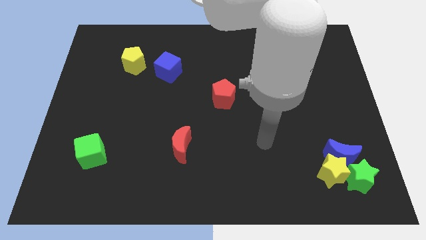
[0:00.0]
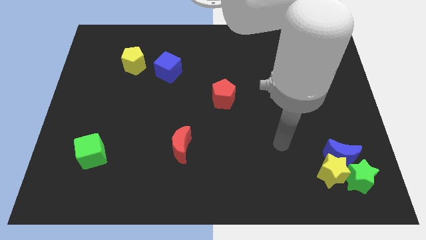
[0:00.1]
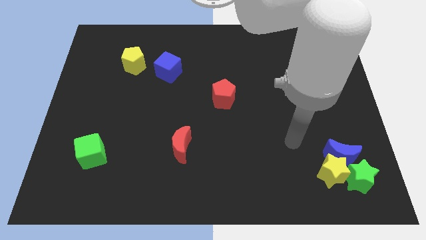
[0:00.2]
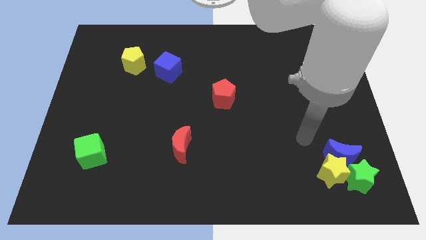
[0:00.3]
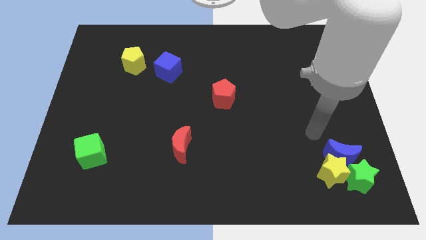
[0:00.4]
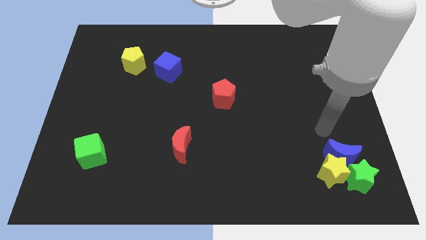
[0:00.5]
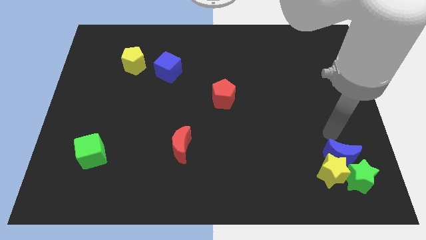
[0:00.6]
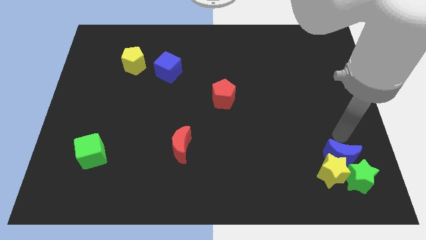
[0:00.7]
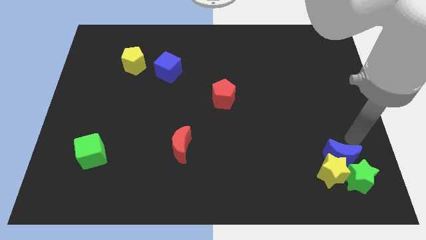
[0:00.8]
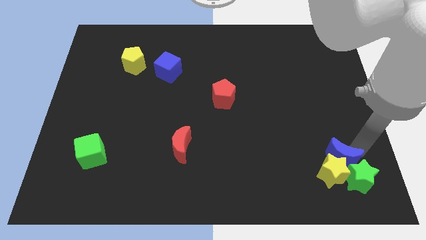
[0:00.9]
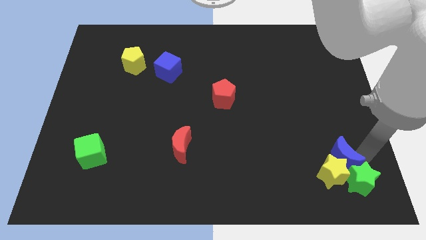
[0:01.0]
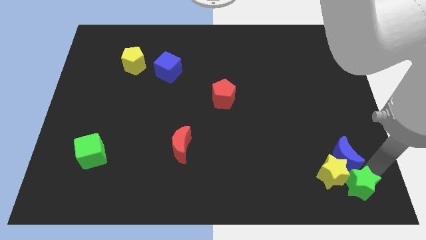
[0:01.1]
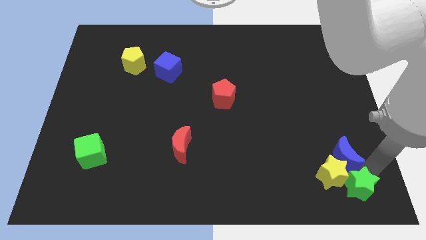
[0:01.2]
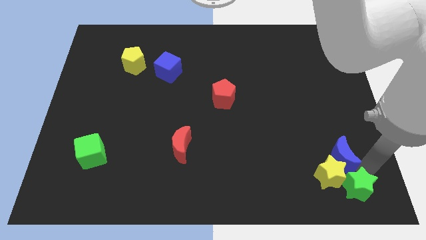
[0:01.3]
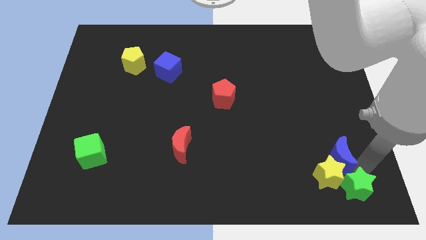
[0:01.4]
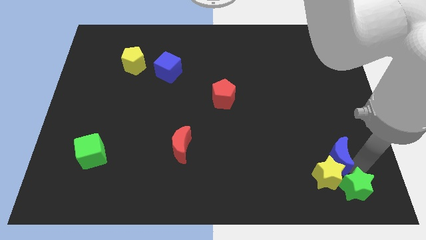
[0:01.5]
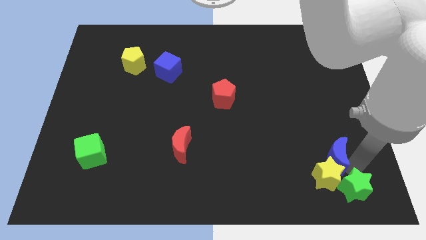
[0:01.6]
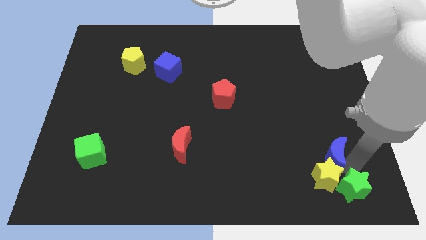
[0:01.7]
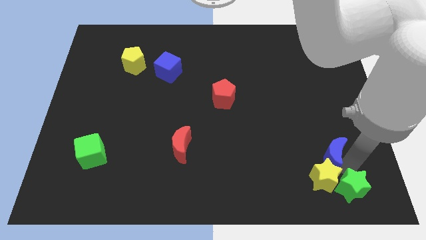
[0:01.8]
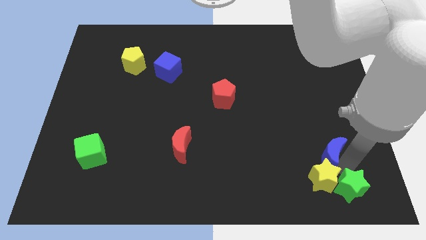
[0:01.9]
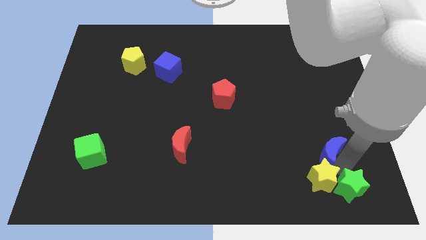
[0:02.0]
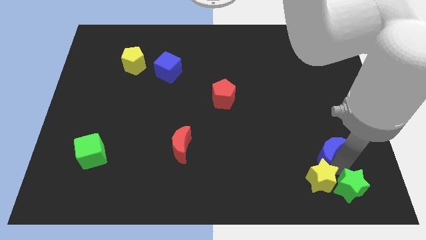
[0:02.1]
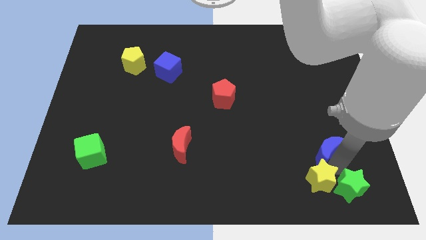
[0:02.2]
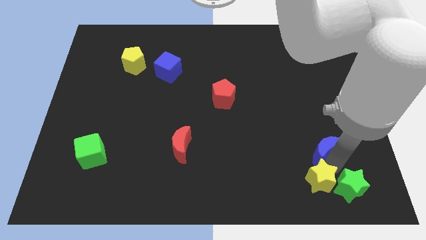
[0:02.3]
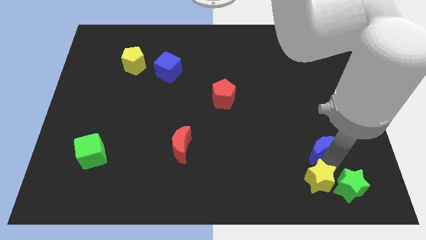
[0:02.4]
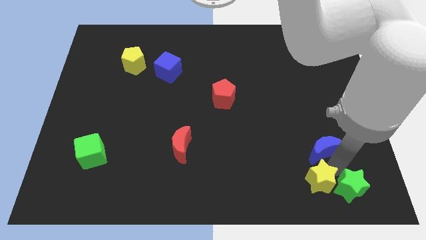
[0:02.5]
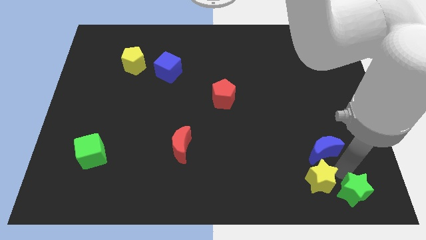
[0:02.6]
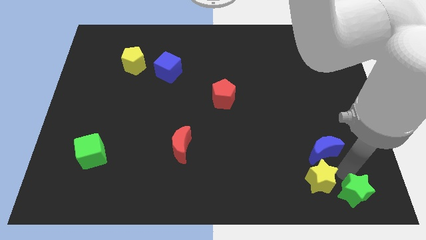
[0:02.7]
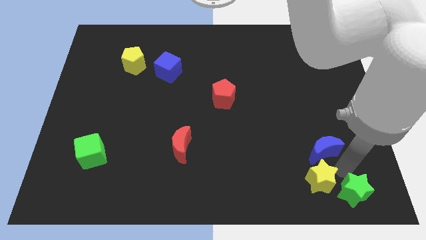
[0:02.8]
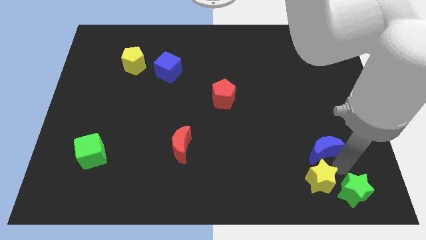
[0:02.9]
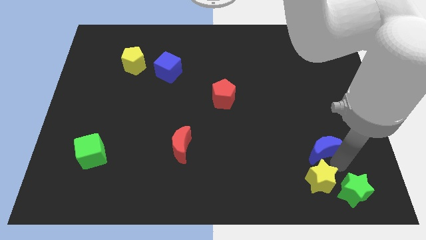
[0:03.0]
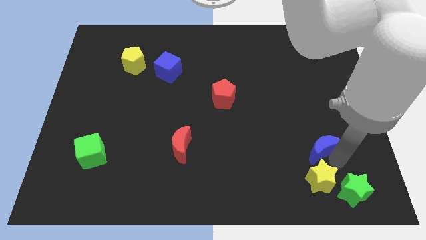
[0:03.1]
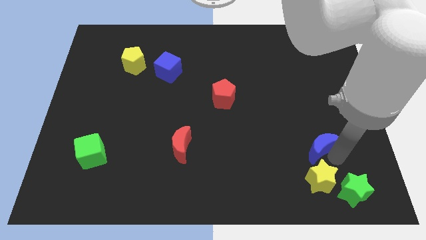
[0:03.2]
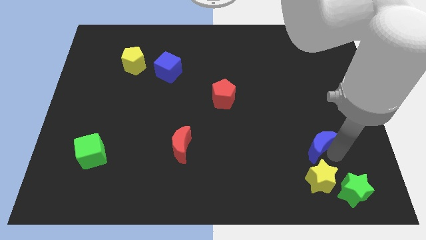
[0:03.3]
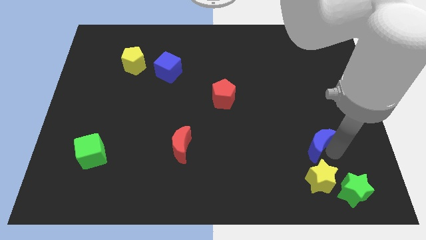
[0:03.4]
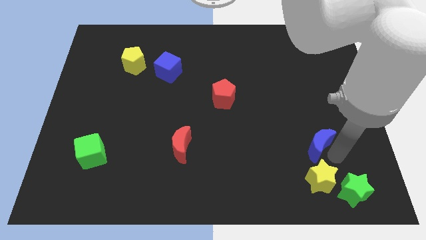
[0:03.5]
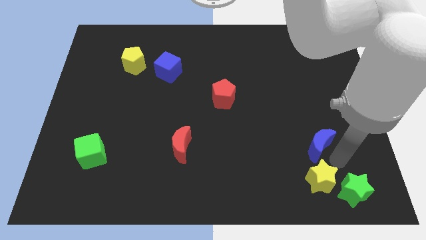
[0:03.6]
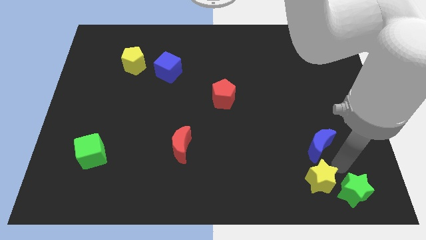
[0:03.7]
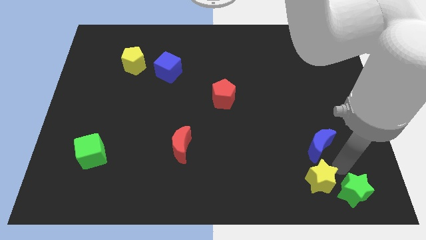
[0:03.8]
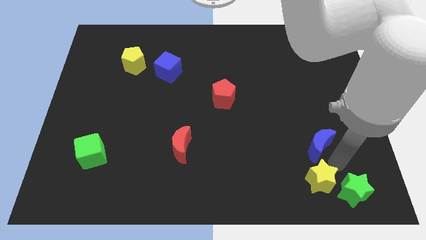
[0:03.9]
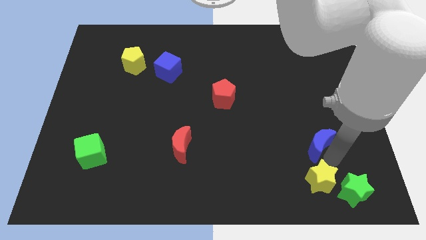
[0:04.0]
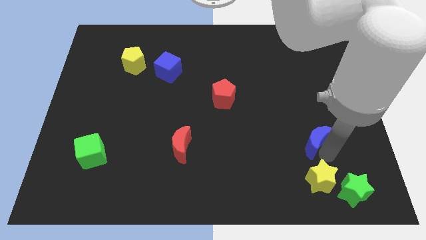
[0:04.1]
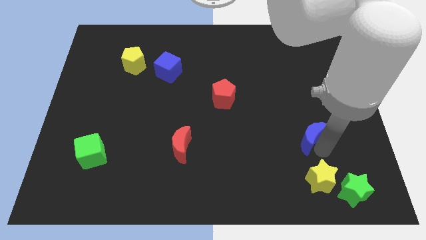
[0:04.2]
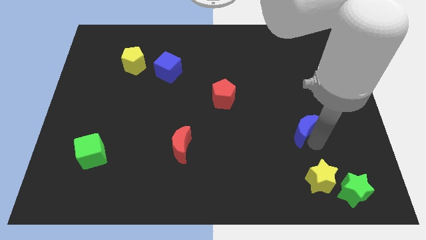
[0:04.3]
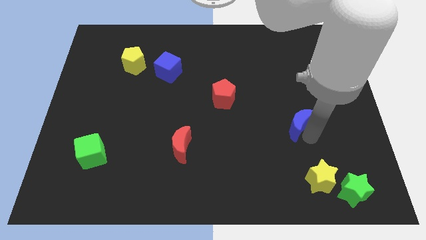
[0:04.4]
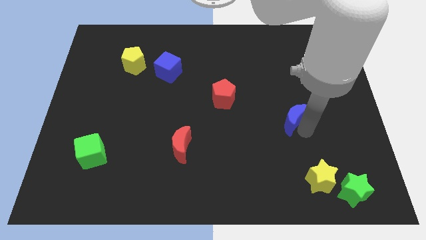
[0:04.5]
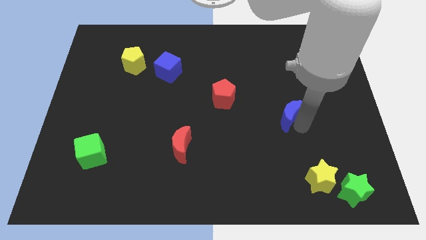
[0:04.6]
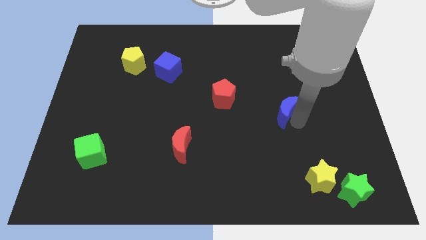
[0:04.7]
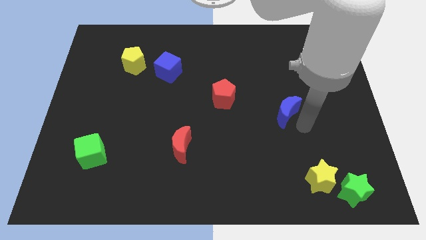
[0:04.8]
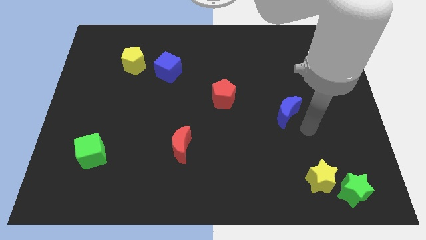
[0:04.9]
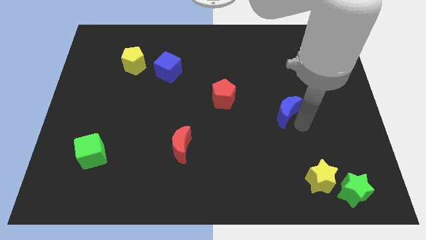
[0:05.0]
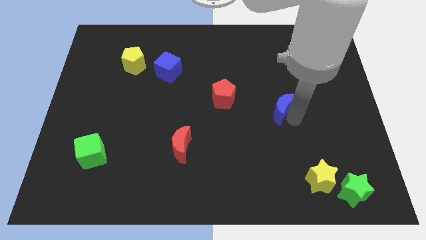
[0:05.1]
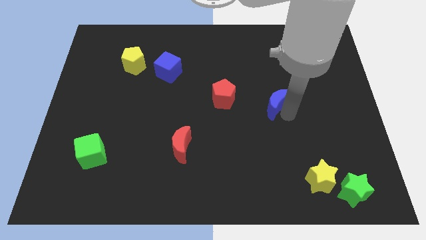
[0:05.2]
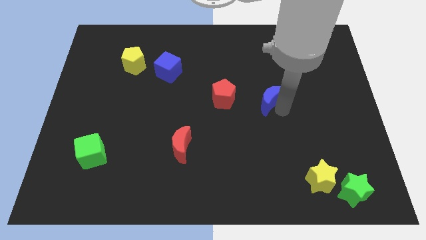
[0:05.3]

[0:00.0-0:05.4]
slide the blue moon upwards and to the left

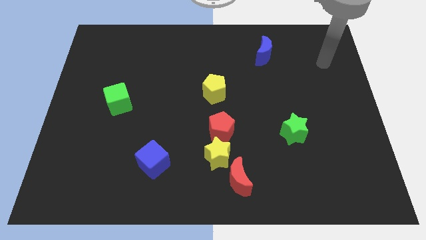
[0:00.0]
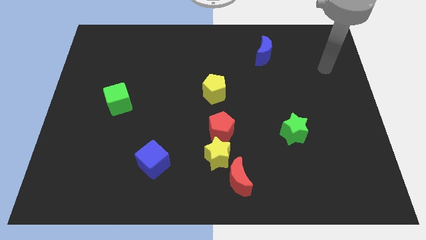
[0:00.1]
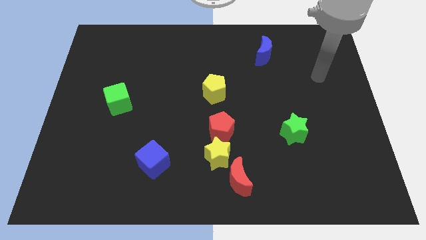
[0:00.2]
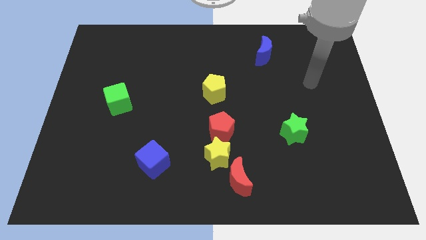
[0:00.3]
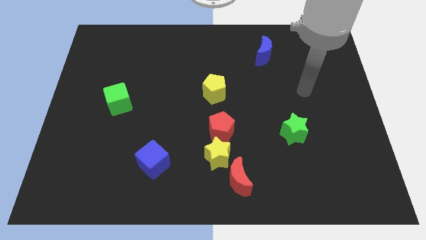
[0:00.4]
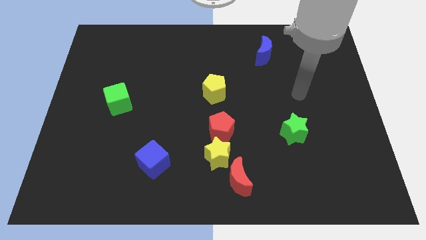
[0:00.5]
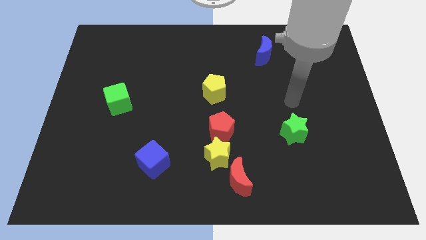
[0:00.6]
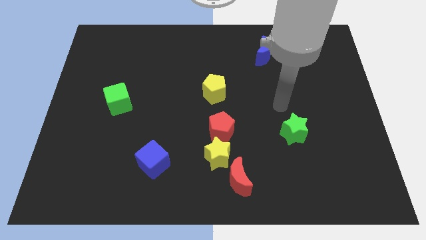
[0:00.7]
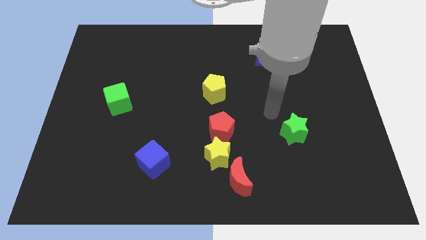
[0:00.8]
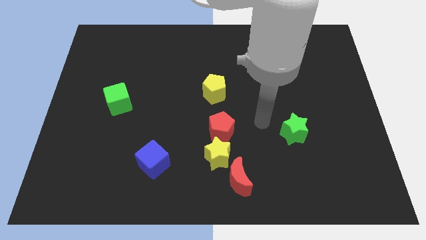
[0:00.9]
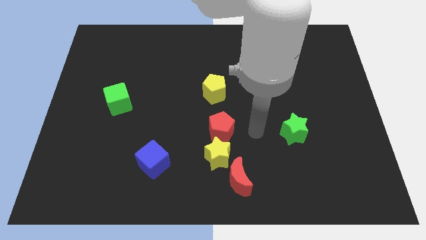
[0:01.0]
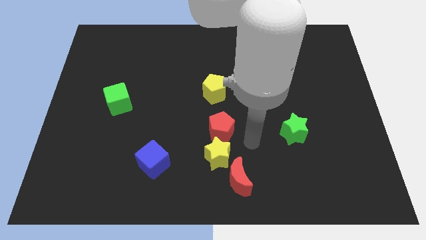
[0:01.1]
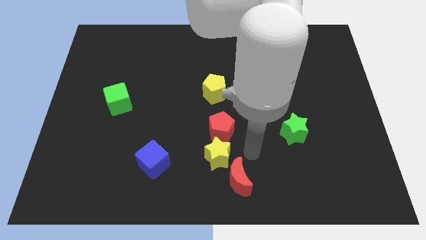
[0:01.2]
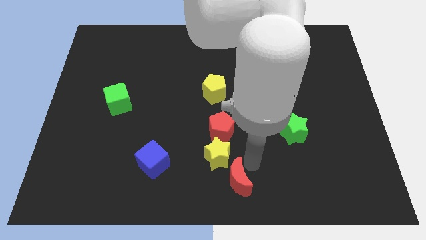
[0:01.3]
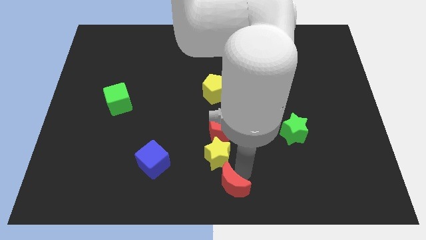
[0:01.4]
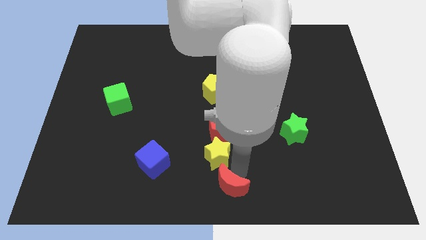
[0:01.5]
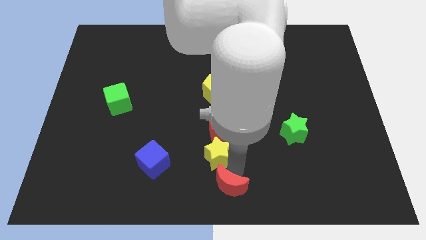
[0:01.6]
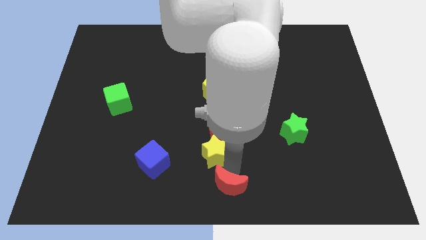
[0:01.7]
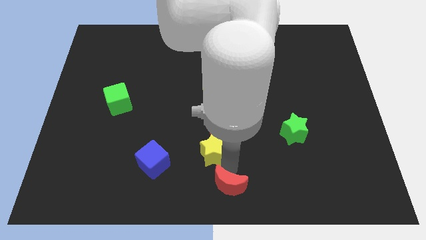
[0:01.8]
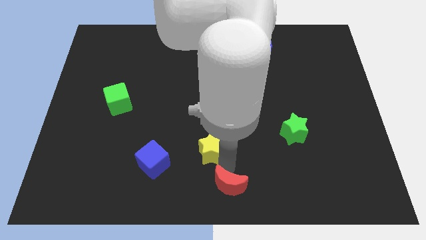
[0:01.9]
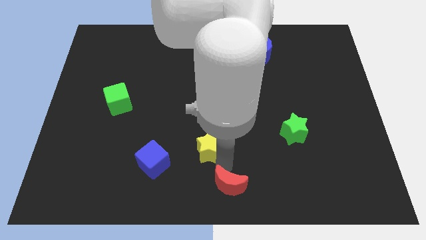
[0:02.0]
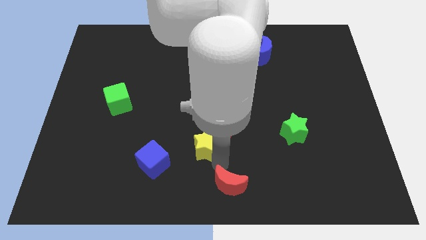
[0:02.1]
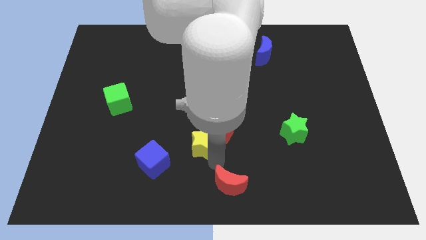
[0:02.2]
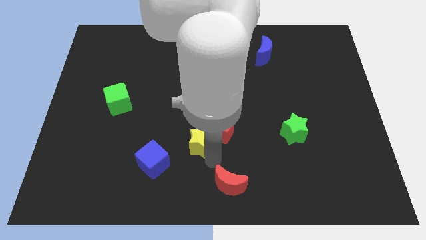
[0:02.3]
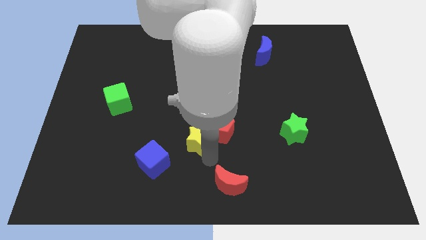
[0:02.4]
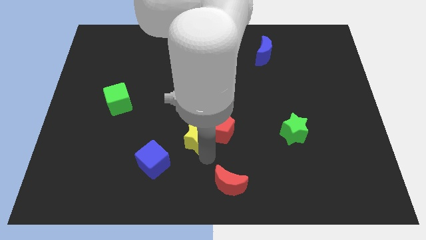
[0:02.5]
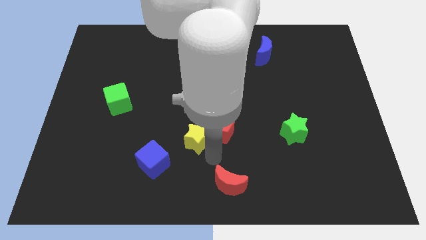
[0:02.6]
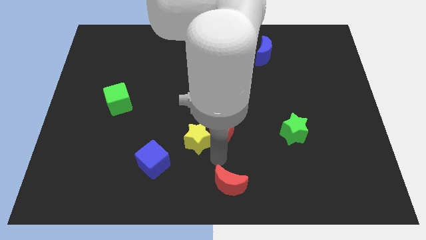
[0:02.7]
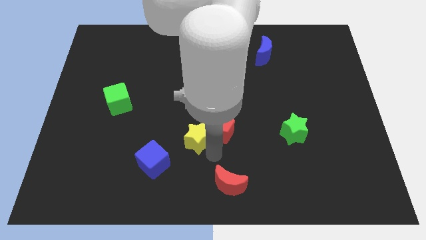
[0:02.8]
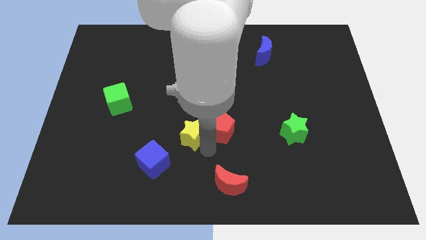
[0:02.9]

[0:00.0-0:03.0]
slightly push the yellow star up and then left
